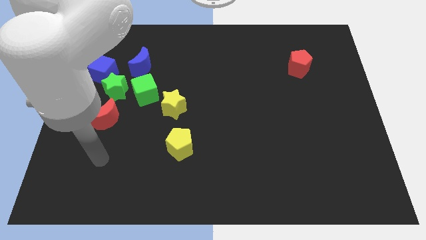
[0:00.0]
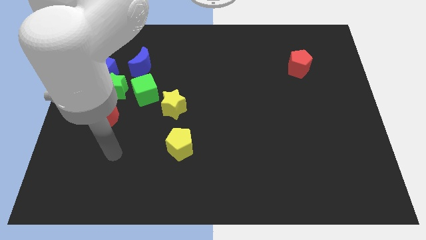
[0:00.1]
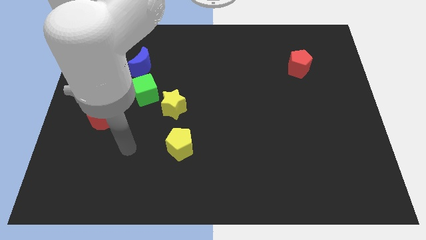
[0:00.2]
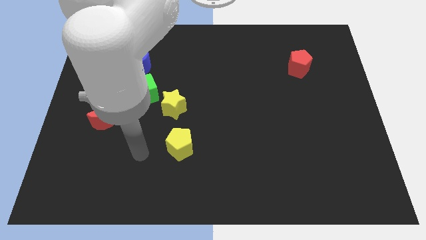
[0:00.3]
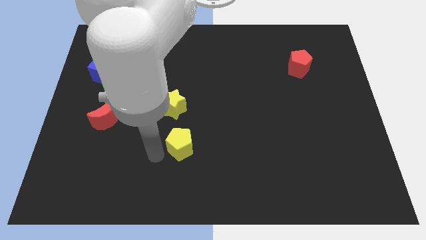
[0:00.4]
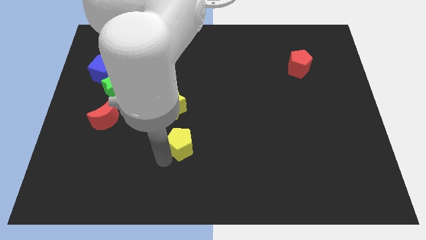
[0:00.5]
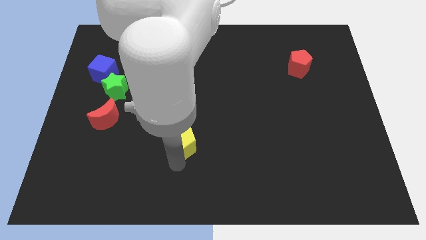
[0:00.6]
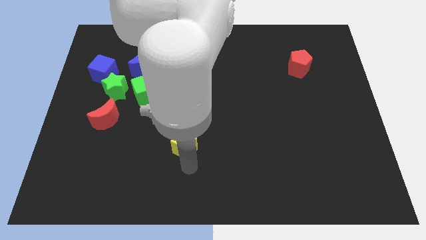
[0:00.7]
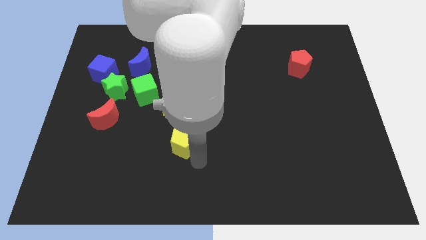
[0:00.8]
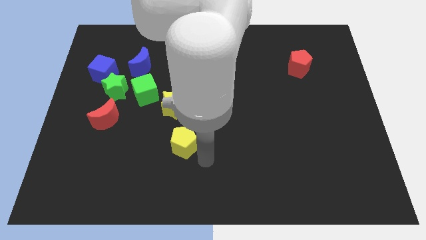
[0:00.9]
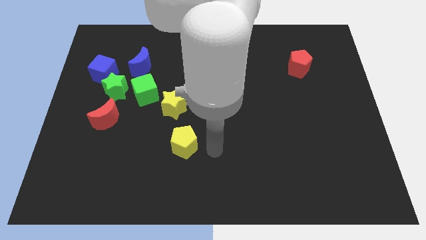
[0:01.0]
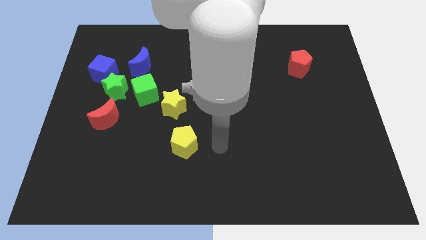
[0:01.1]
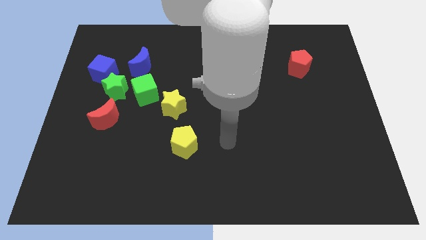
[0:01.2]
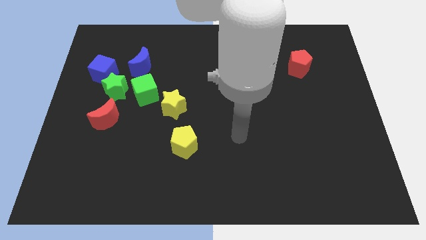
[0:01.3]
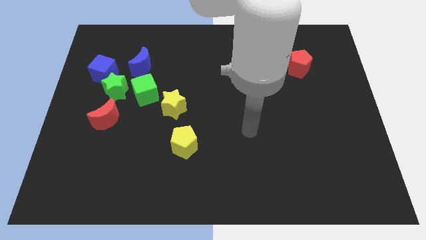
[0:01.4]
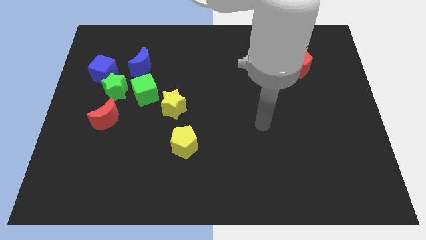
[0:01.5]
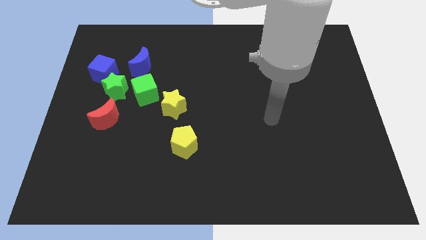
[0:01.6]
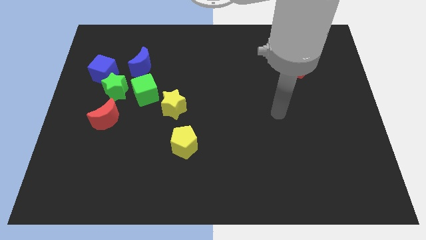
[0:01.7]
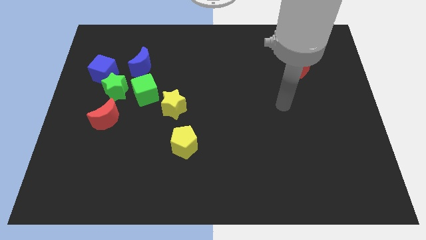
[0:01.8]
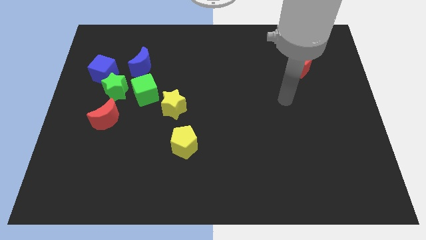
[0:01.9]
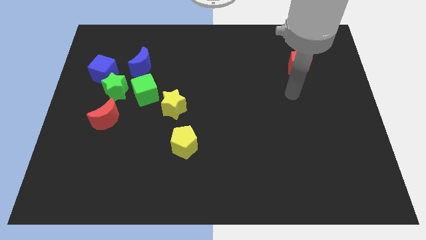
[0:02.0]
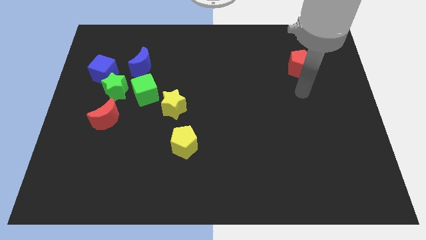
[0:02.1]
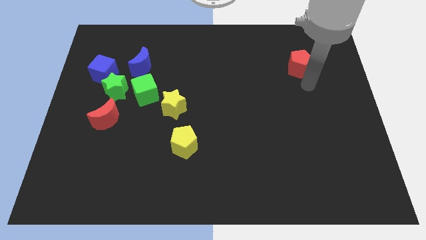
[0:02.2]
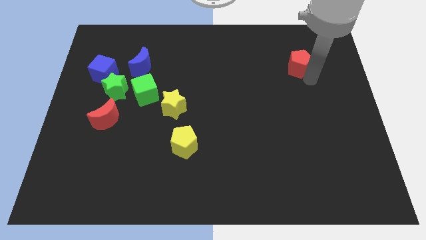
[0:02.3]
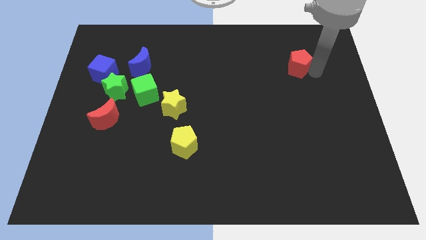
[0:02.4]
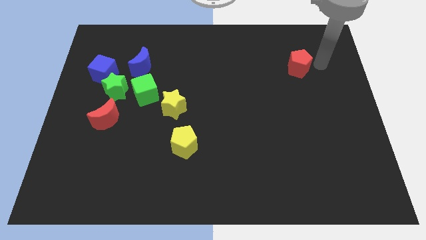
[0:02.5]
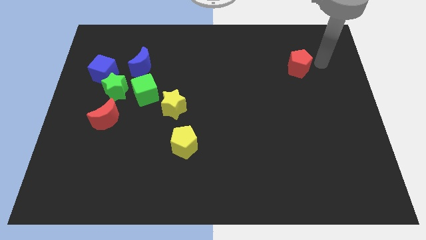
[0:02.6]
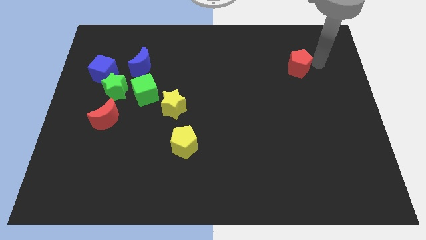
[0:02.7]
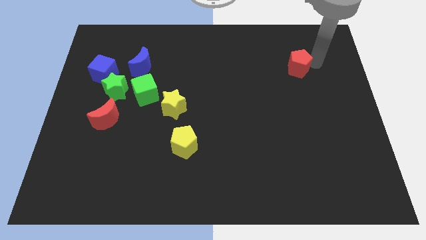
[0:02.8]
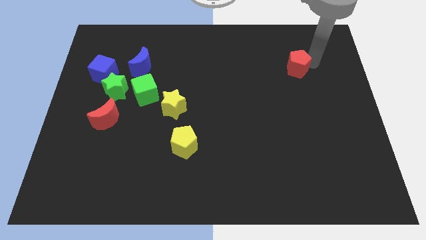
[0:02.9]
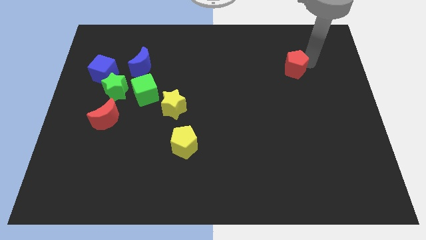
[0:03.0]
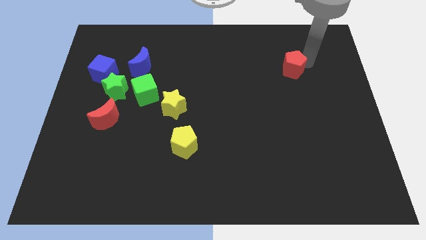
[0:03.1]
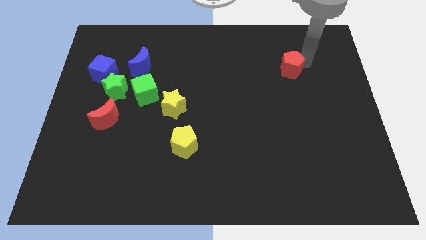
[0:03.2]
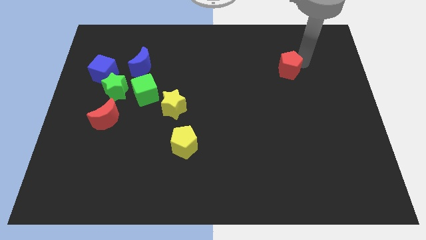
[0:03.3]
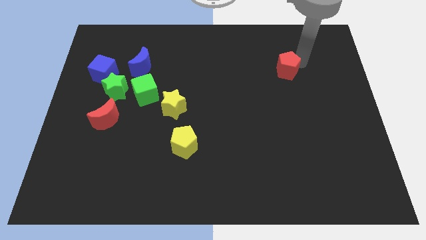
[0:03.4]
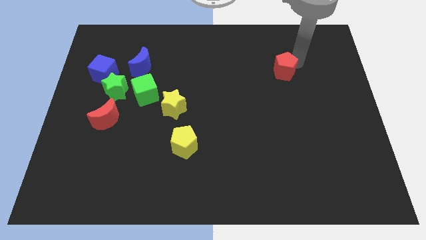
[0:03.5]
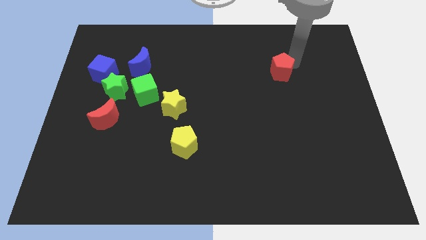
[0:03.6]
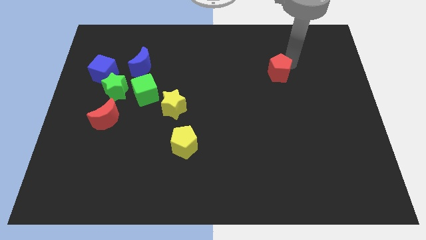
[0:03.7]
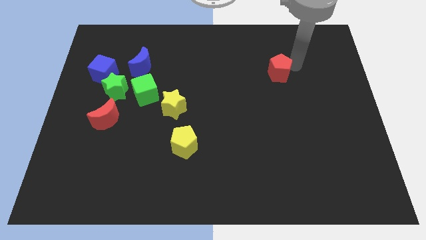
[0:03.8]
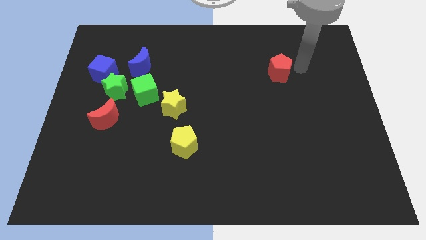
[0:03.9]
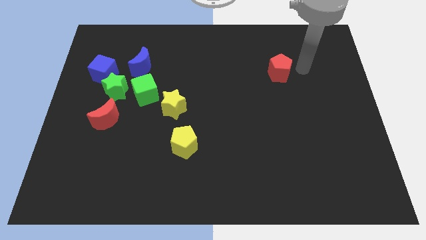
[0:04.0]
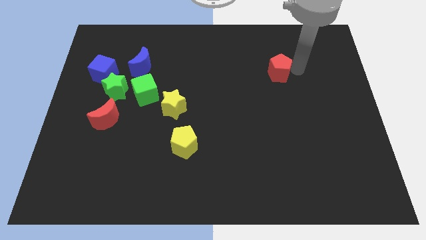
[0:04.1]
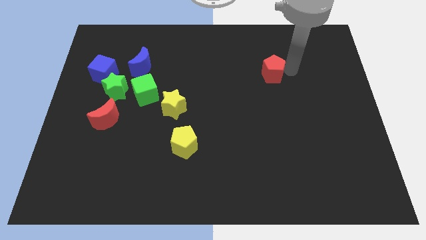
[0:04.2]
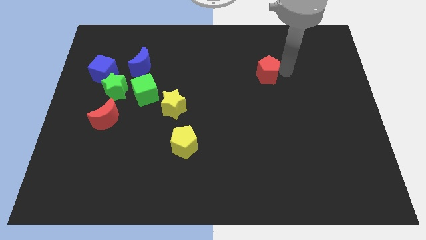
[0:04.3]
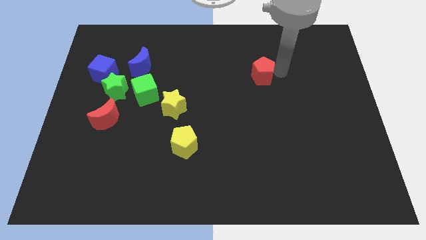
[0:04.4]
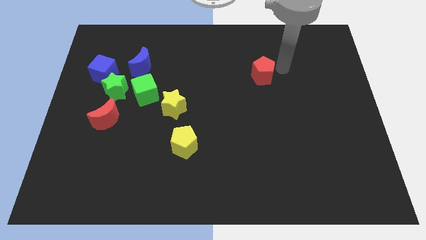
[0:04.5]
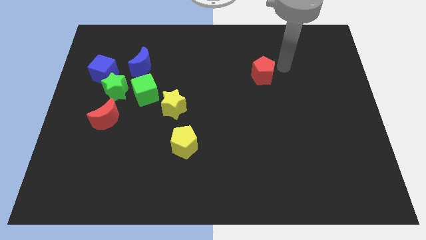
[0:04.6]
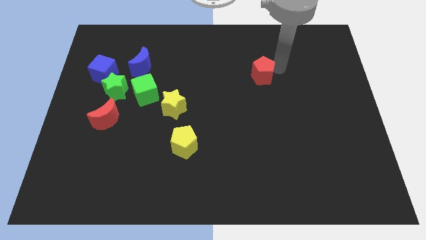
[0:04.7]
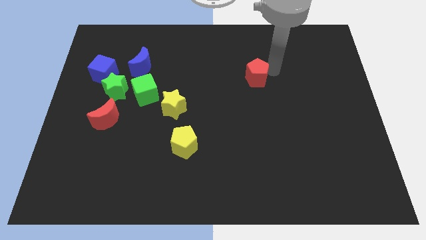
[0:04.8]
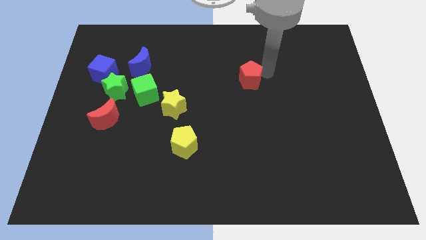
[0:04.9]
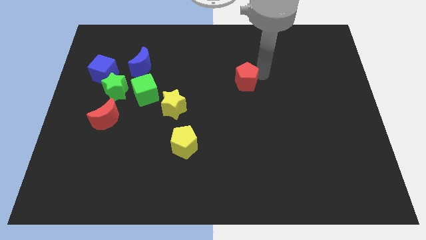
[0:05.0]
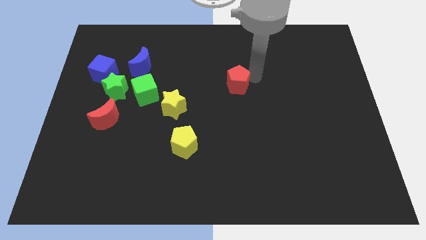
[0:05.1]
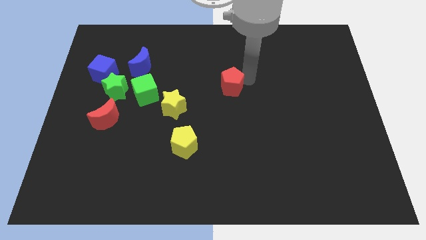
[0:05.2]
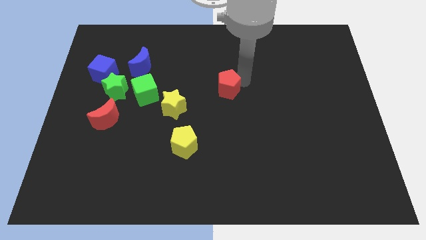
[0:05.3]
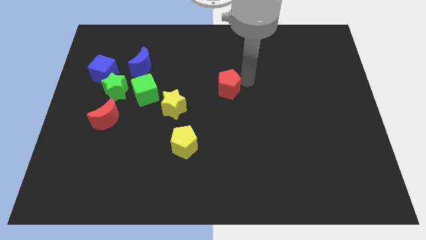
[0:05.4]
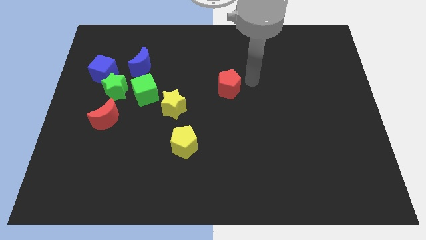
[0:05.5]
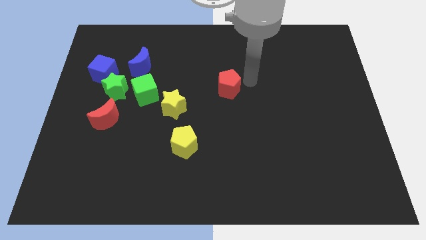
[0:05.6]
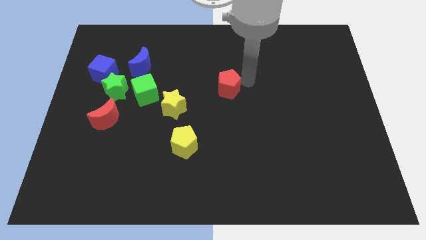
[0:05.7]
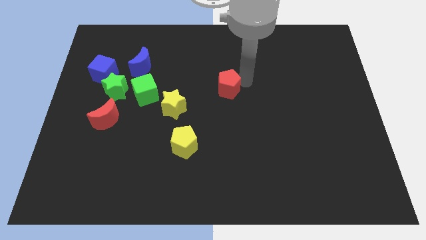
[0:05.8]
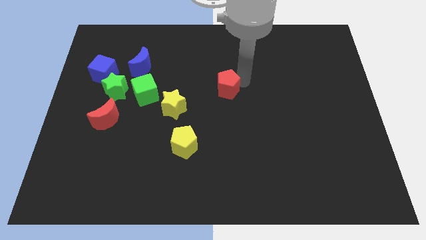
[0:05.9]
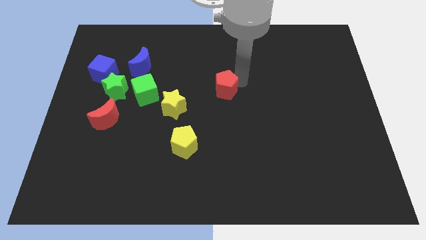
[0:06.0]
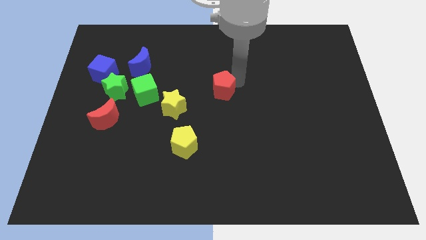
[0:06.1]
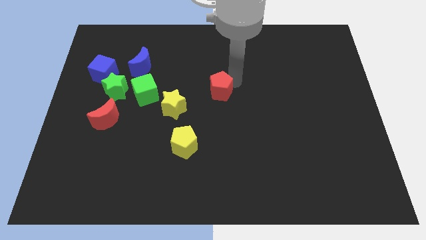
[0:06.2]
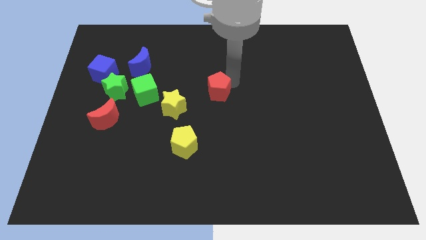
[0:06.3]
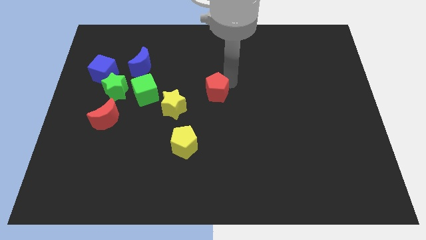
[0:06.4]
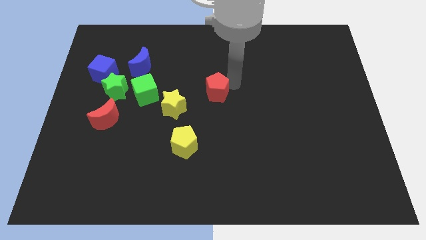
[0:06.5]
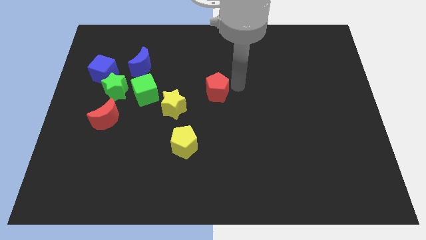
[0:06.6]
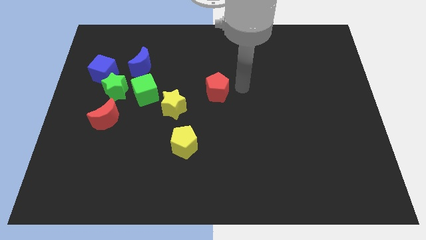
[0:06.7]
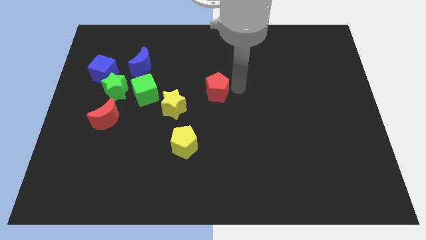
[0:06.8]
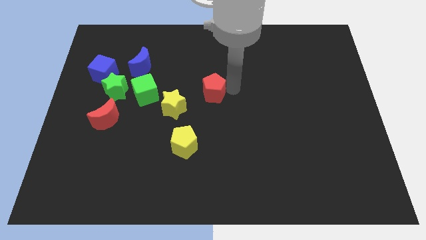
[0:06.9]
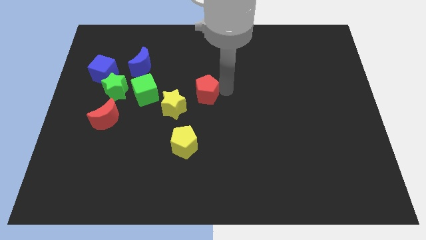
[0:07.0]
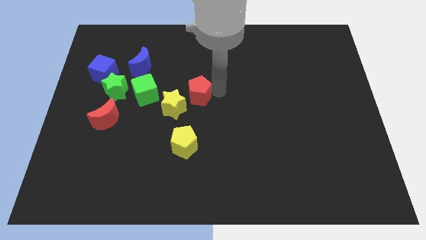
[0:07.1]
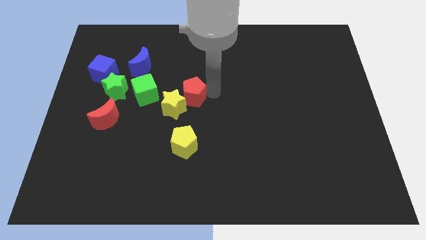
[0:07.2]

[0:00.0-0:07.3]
push the red pentagon towards the yellow star

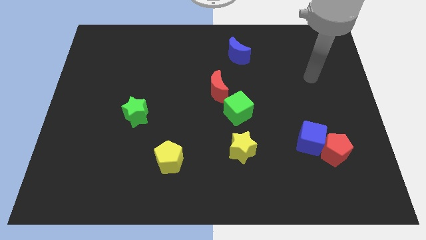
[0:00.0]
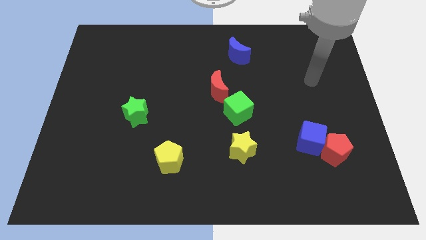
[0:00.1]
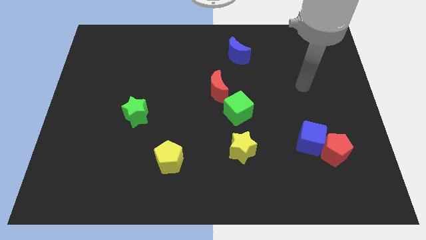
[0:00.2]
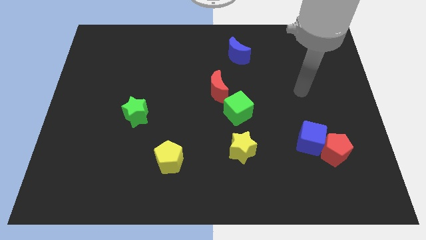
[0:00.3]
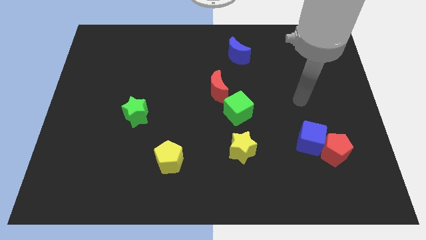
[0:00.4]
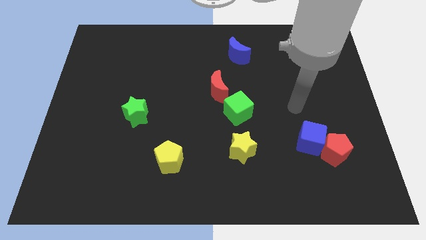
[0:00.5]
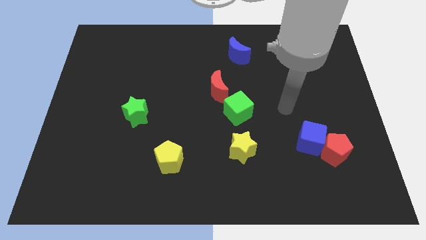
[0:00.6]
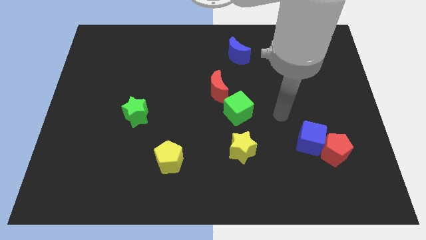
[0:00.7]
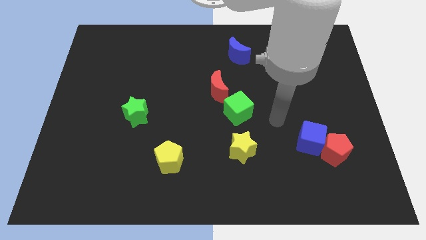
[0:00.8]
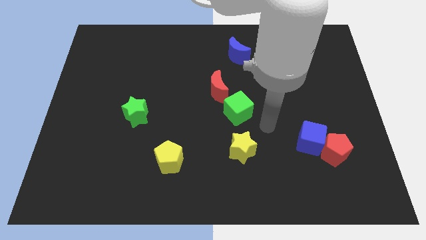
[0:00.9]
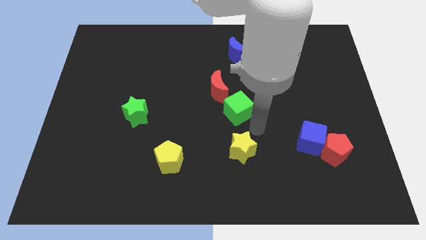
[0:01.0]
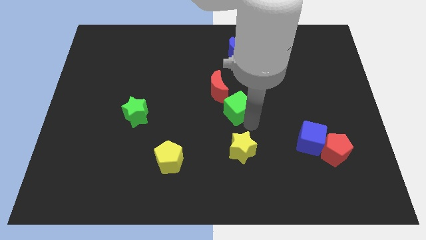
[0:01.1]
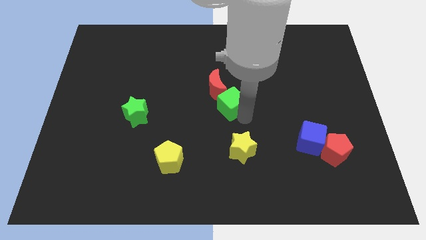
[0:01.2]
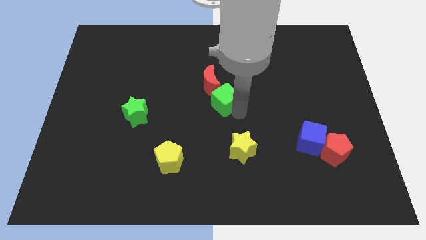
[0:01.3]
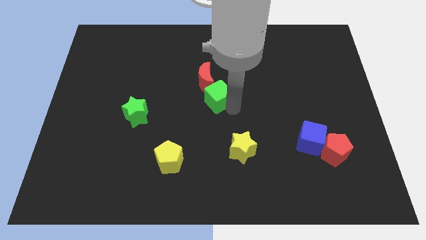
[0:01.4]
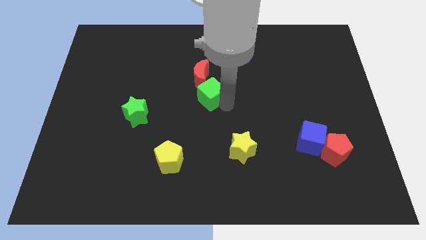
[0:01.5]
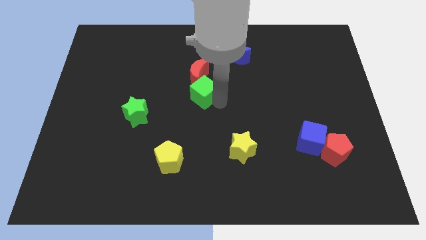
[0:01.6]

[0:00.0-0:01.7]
push the green cube close to the red moon
